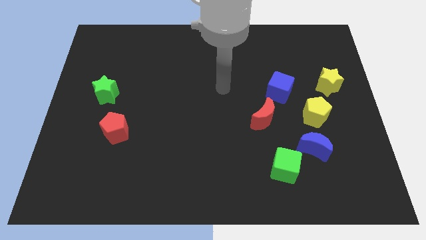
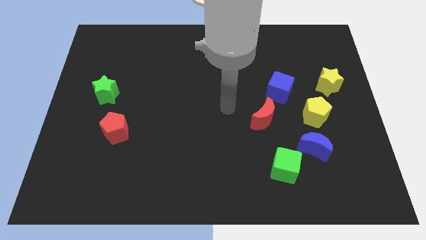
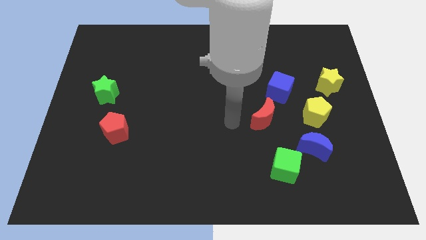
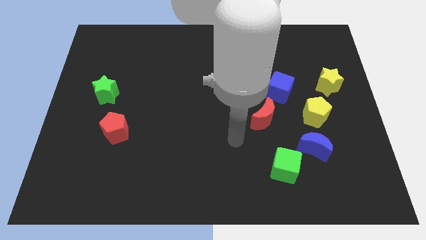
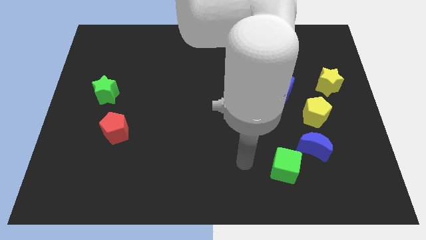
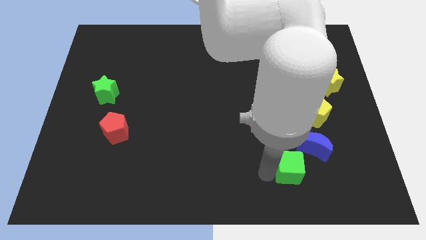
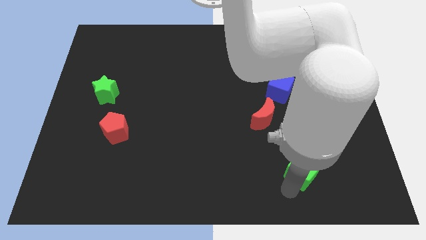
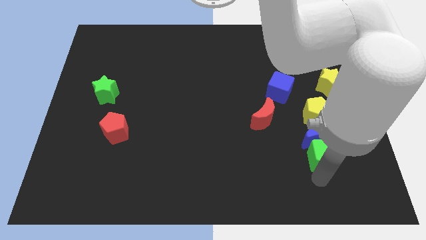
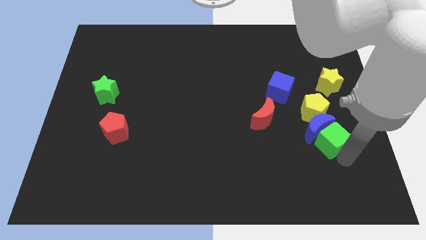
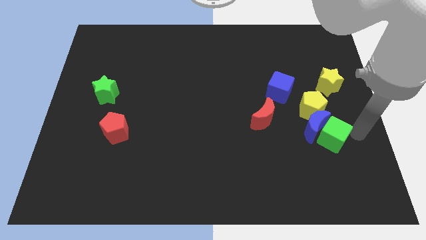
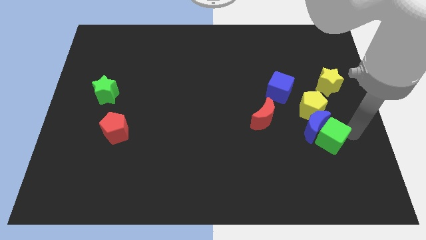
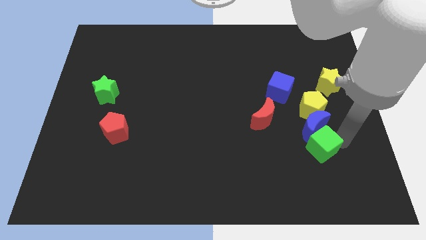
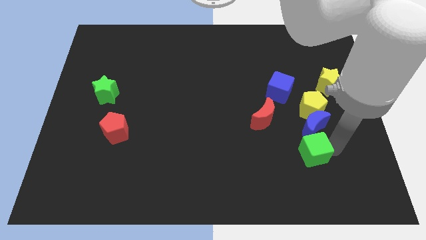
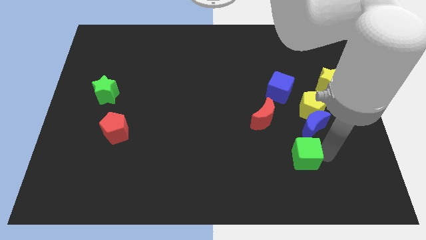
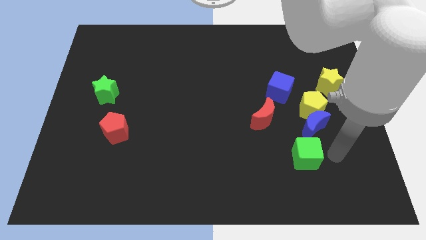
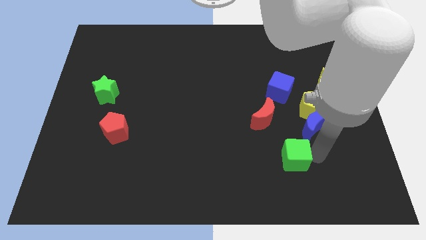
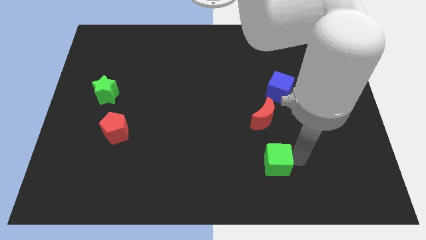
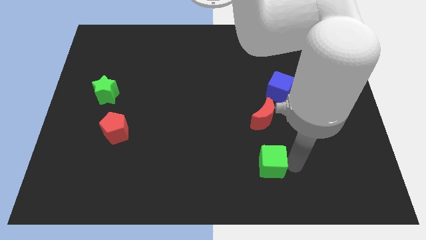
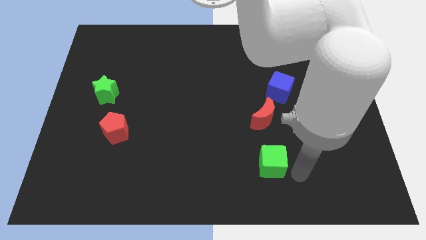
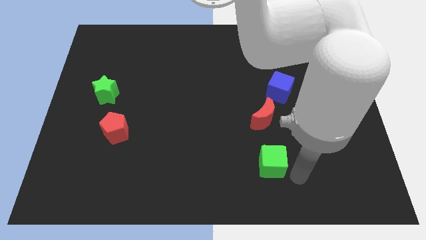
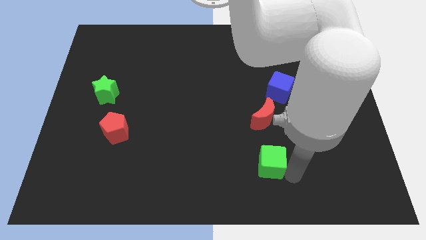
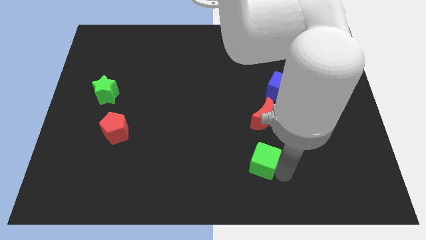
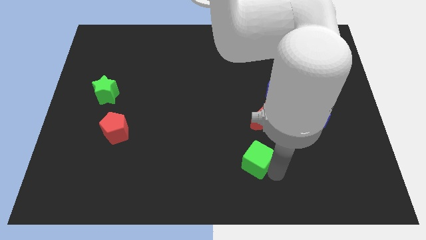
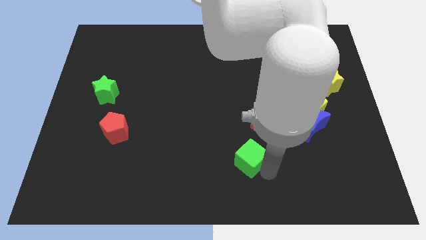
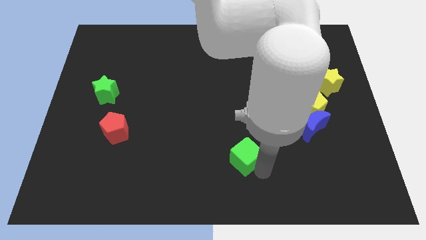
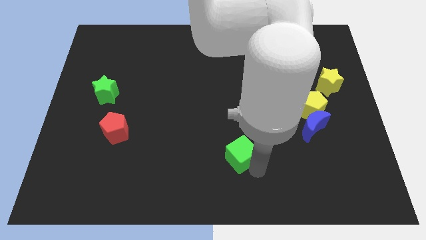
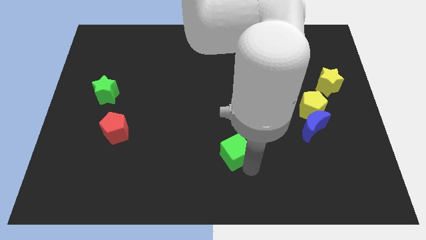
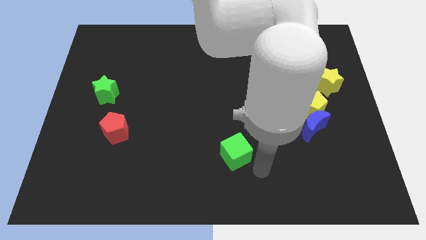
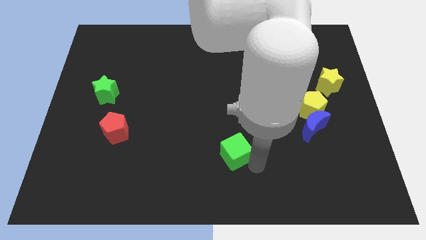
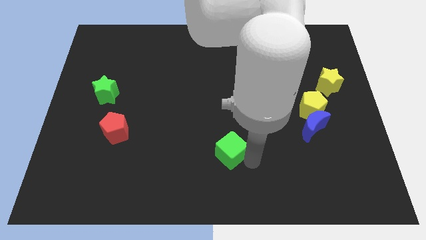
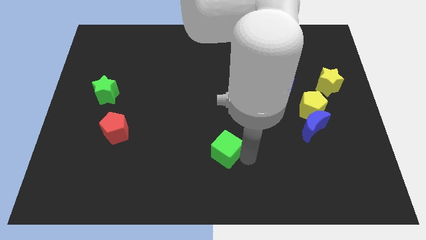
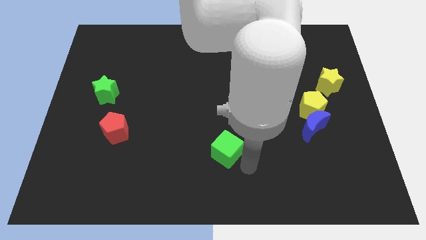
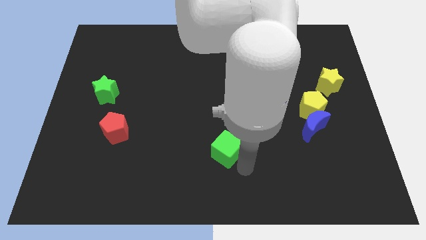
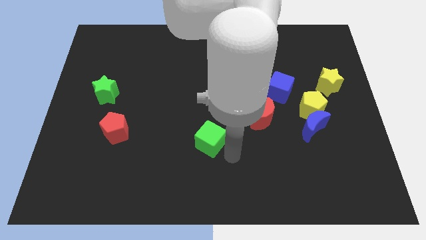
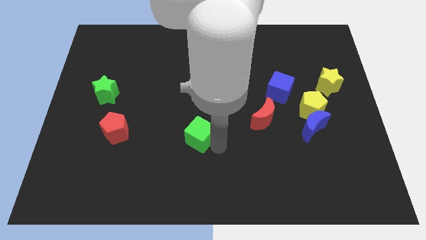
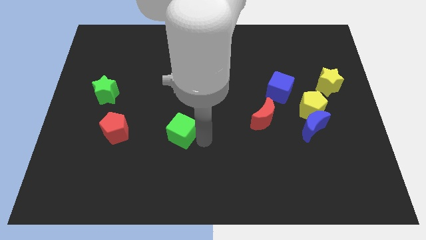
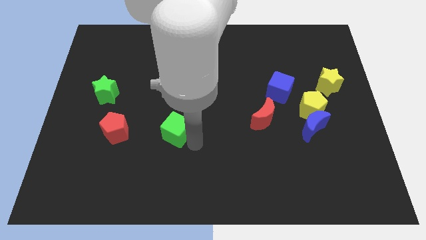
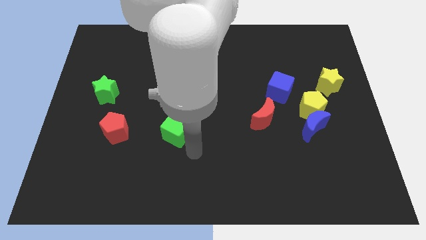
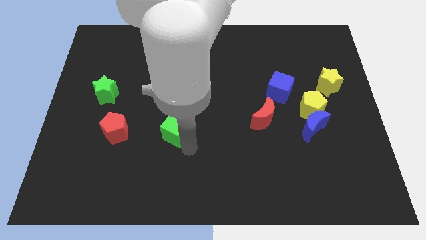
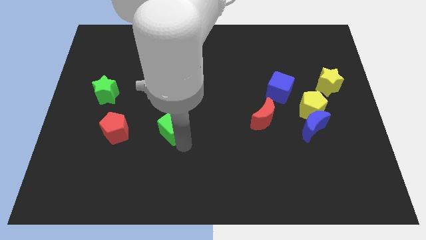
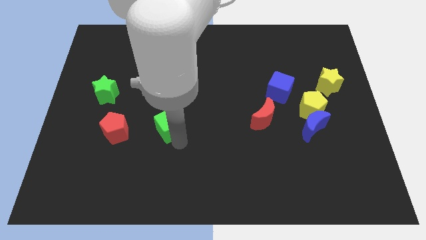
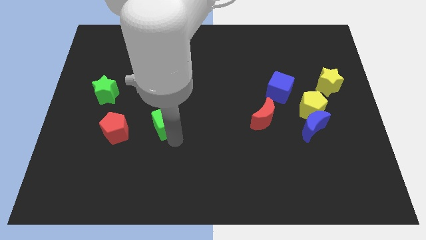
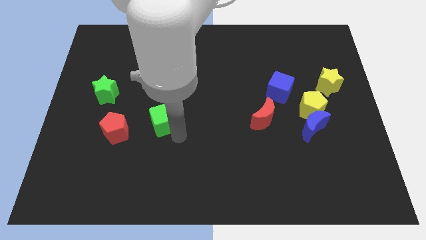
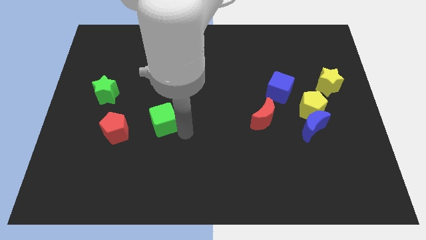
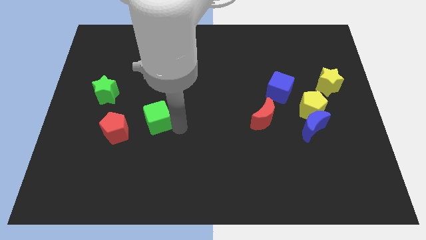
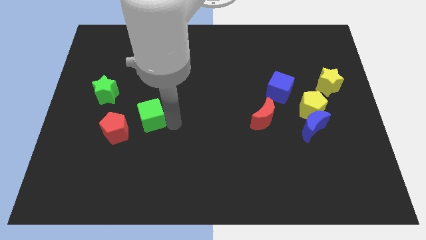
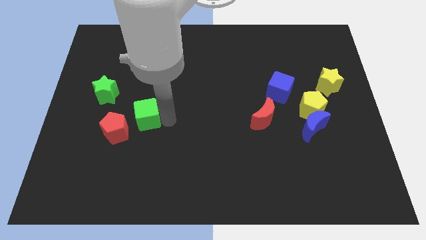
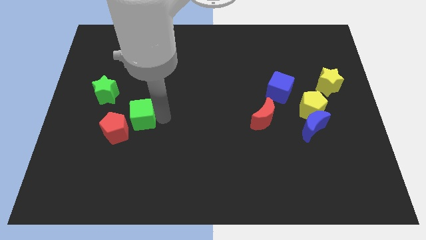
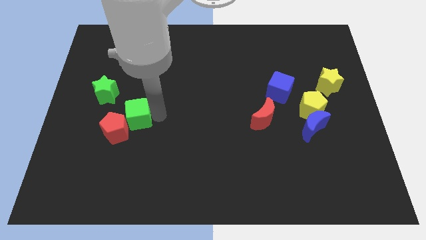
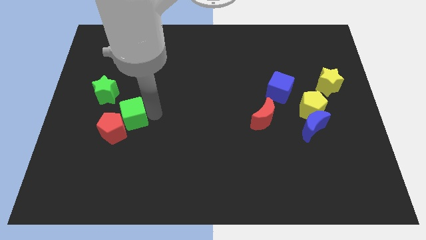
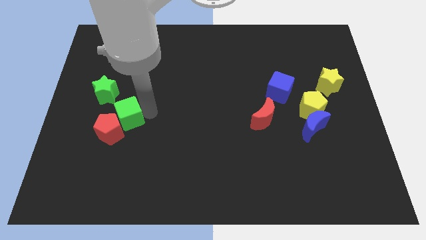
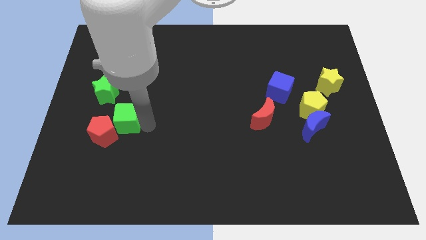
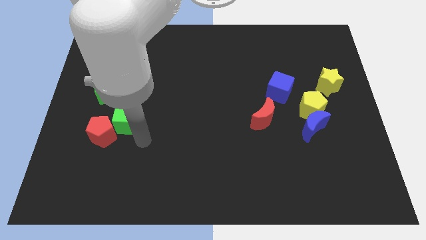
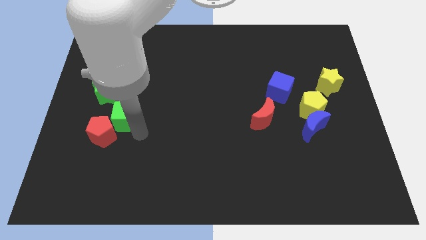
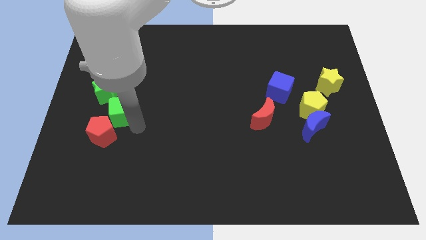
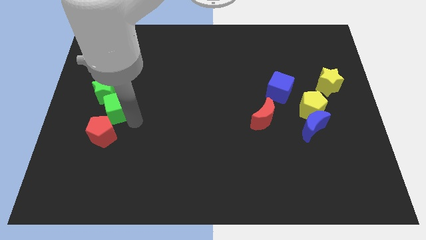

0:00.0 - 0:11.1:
move the green cube towards the green star
